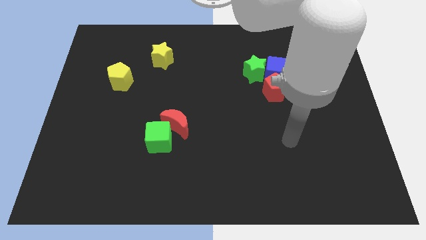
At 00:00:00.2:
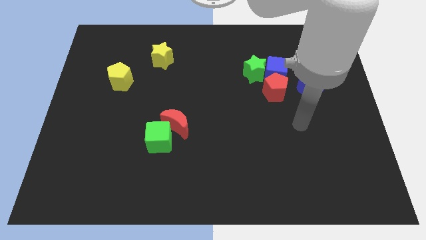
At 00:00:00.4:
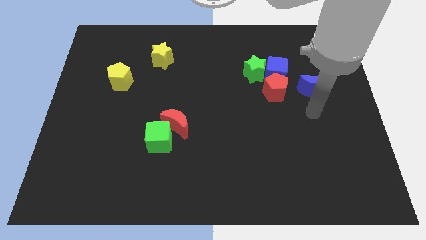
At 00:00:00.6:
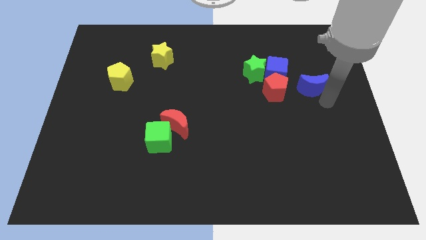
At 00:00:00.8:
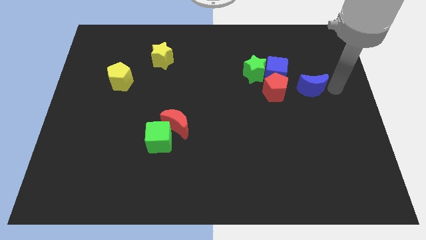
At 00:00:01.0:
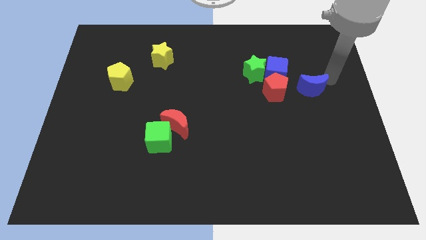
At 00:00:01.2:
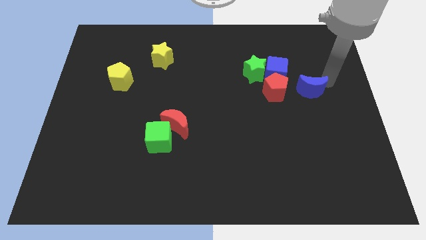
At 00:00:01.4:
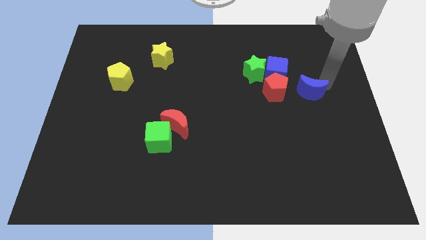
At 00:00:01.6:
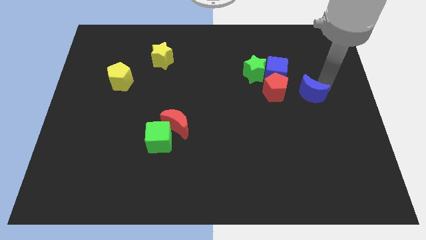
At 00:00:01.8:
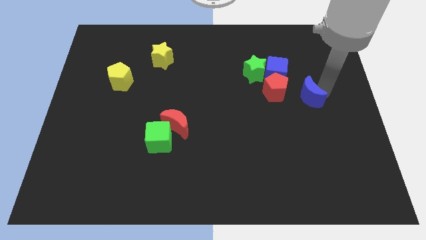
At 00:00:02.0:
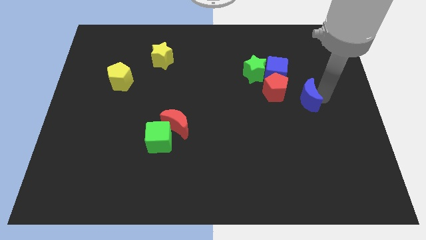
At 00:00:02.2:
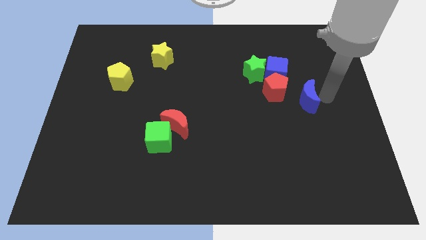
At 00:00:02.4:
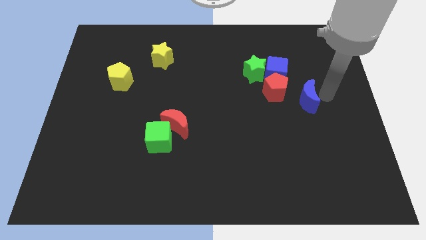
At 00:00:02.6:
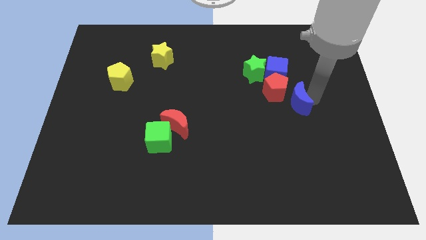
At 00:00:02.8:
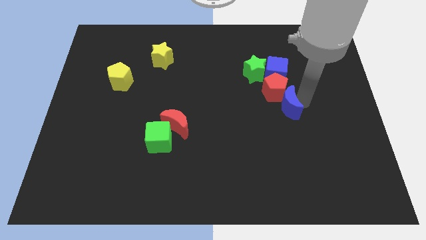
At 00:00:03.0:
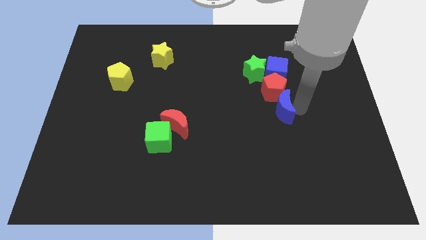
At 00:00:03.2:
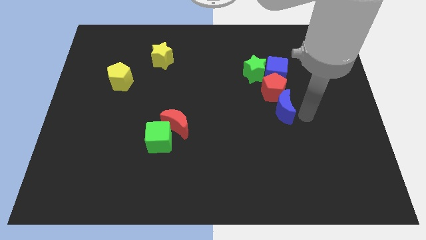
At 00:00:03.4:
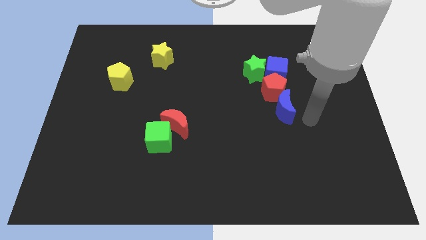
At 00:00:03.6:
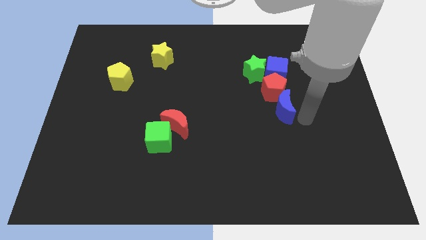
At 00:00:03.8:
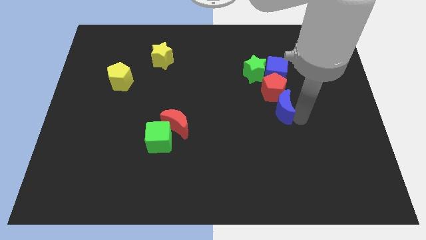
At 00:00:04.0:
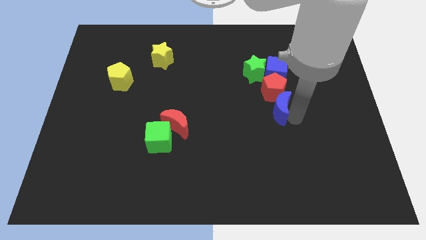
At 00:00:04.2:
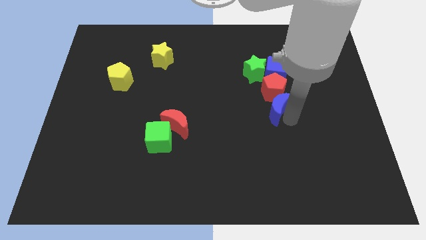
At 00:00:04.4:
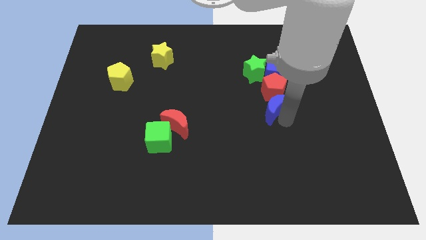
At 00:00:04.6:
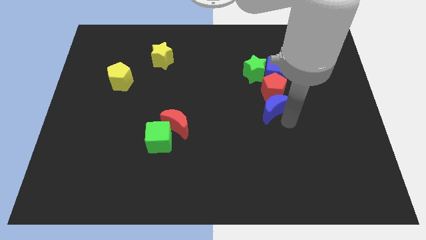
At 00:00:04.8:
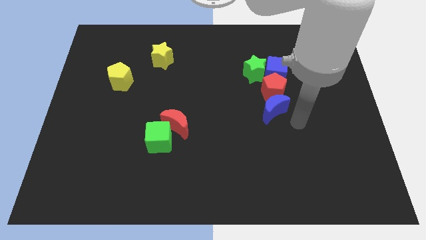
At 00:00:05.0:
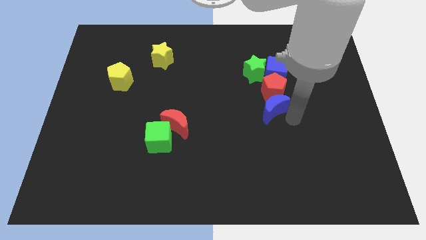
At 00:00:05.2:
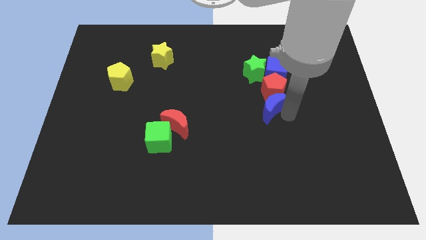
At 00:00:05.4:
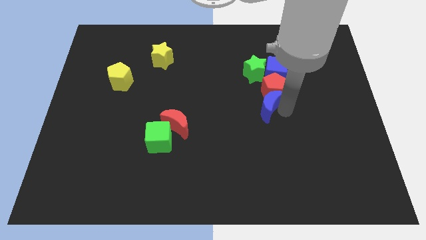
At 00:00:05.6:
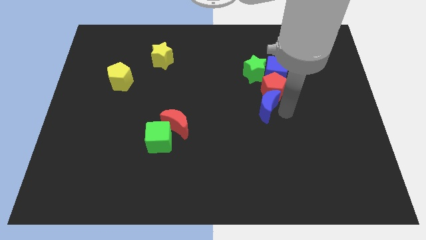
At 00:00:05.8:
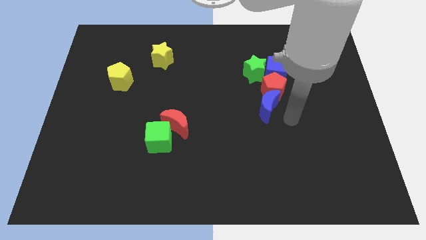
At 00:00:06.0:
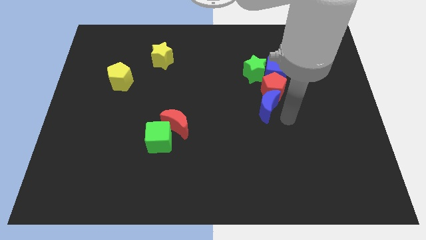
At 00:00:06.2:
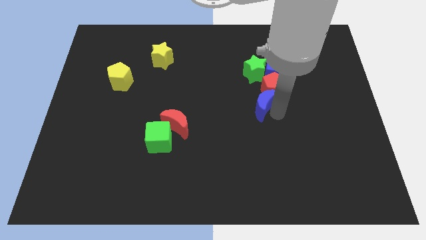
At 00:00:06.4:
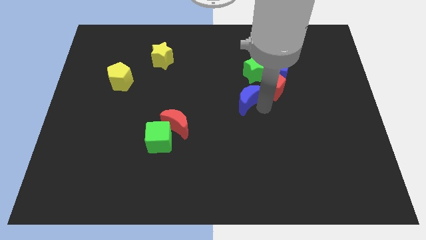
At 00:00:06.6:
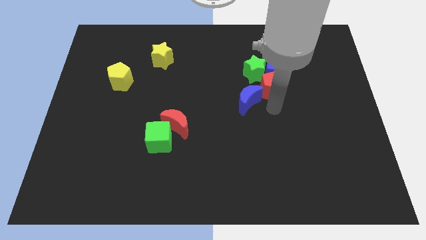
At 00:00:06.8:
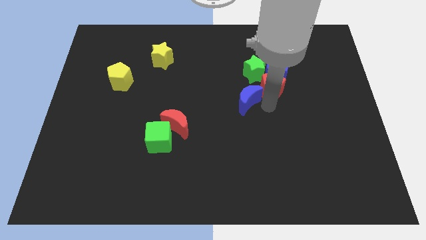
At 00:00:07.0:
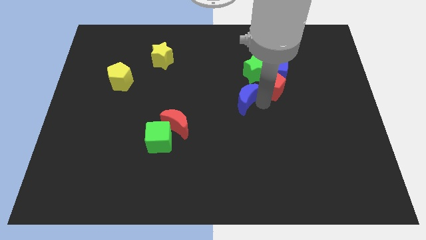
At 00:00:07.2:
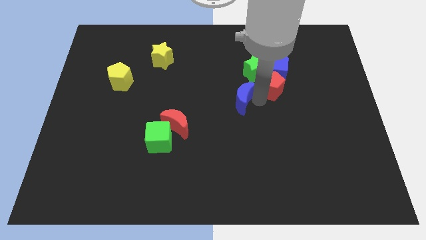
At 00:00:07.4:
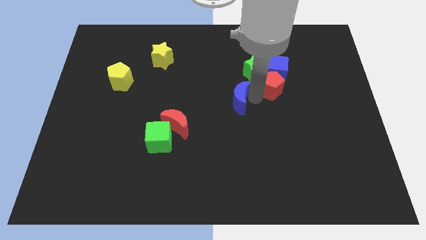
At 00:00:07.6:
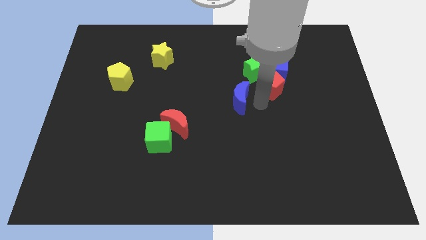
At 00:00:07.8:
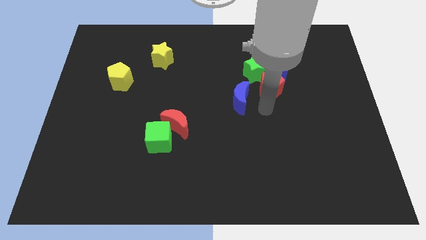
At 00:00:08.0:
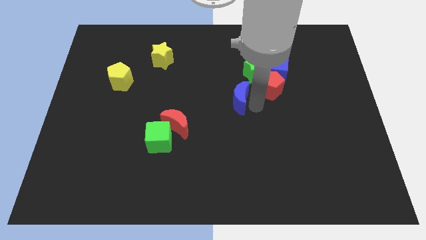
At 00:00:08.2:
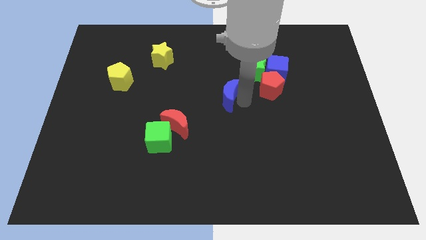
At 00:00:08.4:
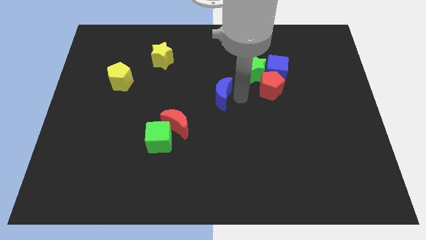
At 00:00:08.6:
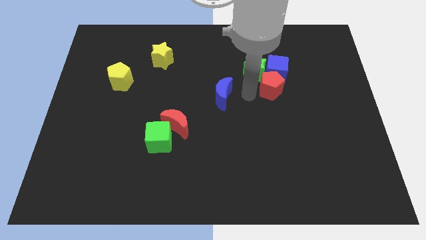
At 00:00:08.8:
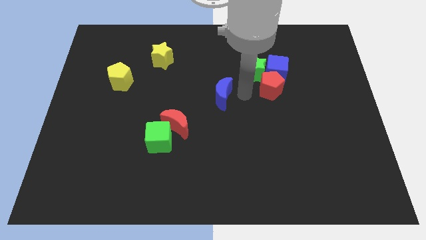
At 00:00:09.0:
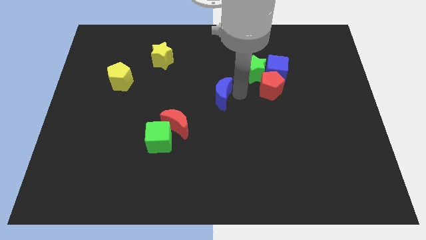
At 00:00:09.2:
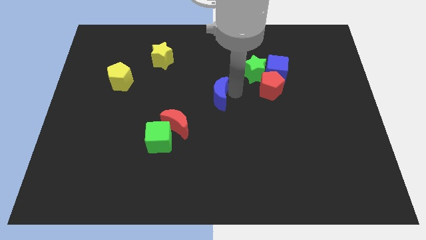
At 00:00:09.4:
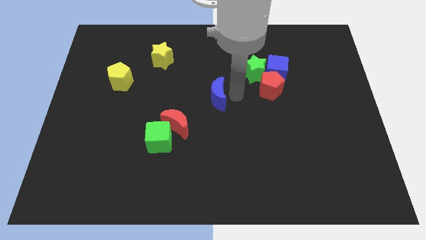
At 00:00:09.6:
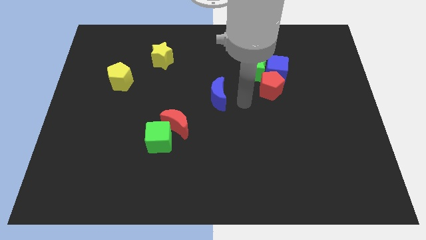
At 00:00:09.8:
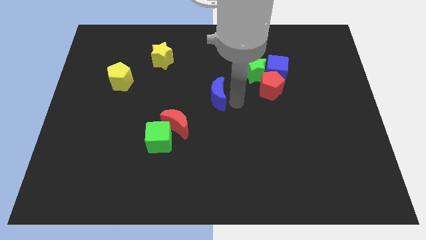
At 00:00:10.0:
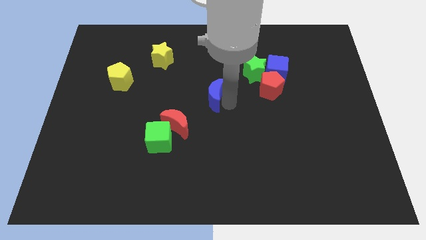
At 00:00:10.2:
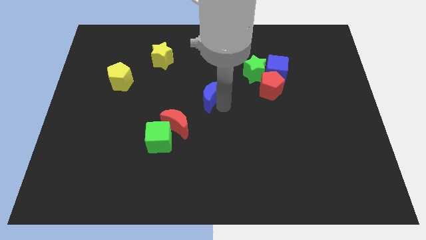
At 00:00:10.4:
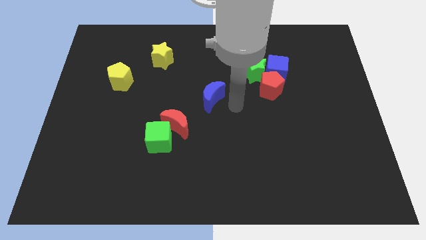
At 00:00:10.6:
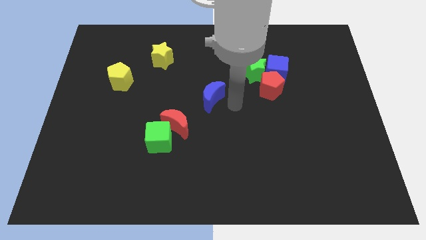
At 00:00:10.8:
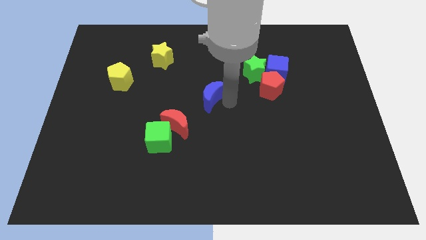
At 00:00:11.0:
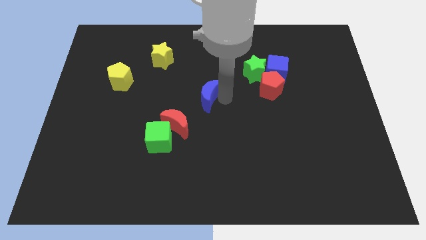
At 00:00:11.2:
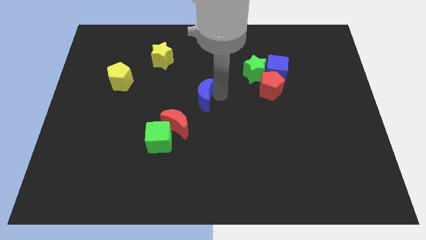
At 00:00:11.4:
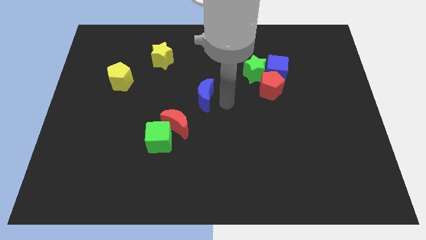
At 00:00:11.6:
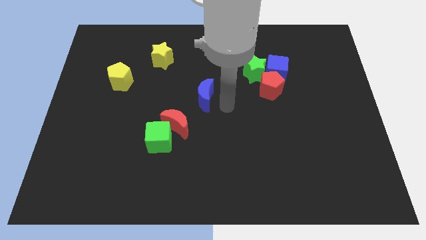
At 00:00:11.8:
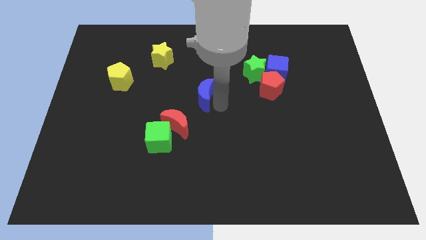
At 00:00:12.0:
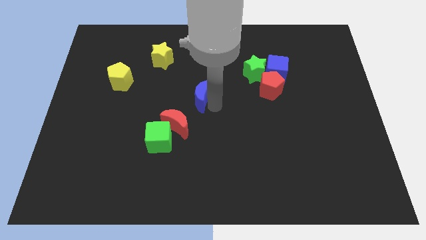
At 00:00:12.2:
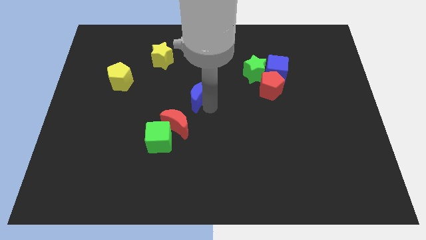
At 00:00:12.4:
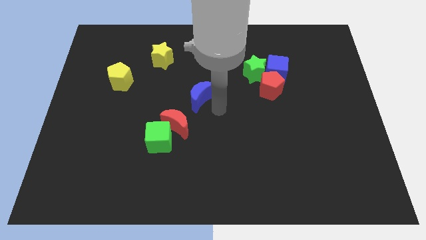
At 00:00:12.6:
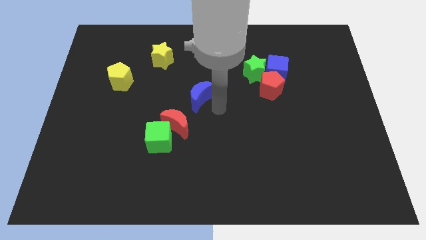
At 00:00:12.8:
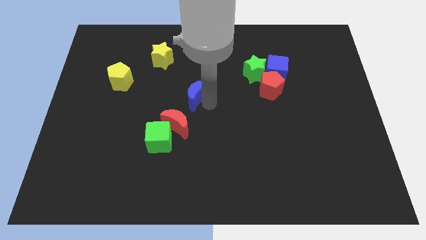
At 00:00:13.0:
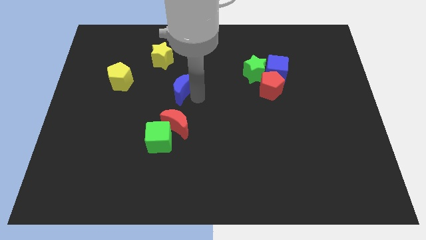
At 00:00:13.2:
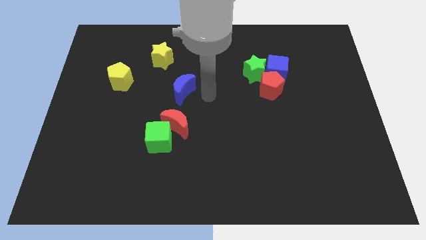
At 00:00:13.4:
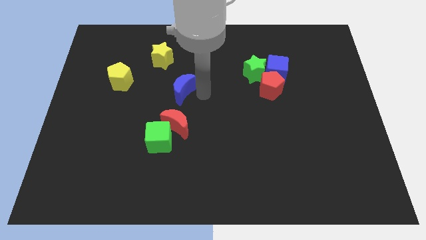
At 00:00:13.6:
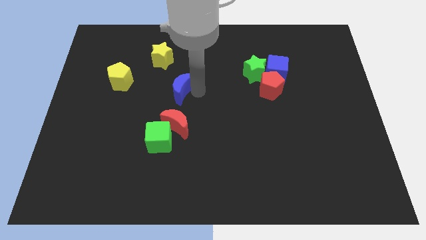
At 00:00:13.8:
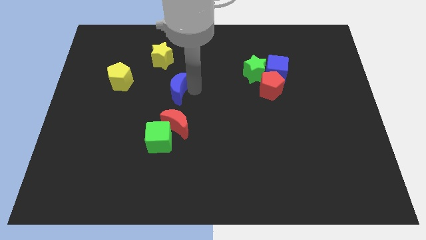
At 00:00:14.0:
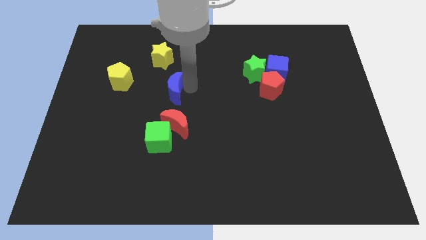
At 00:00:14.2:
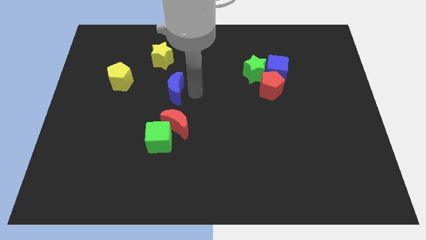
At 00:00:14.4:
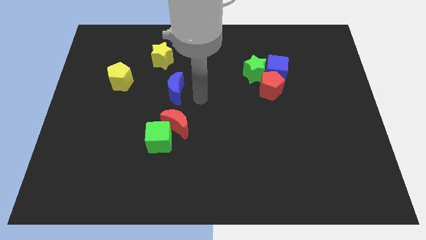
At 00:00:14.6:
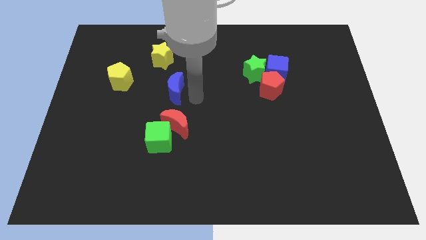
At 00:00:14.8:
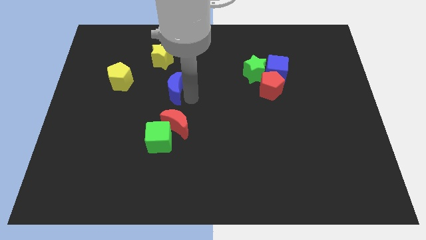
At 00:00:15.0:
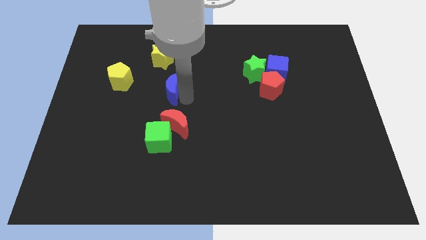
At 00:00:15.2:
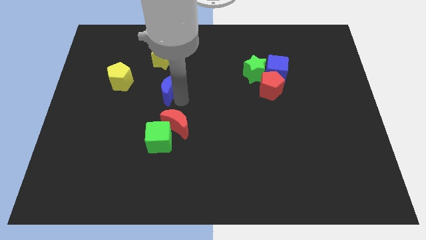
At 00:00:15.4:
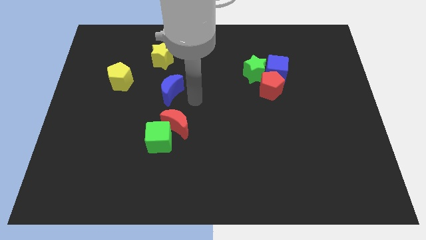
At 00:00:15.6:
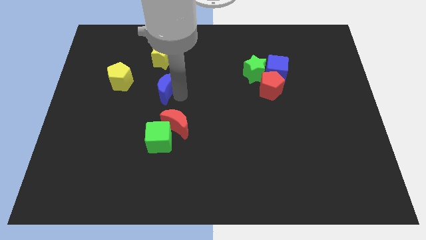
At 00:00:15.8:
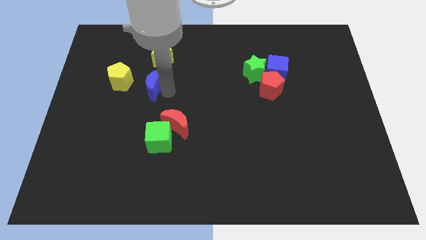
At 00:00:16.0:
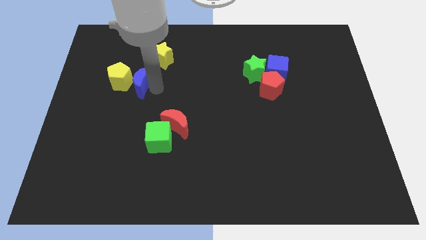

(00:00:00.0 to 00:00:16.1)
move the blue moon towards the yellow pentagon
